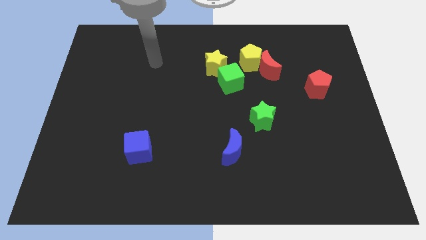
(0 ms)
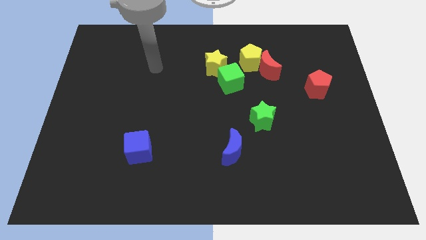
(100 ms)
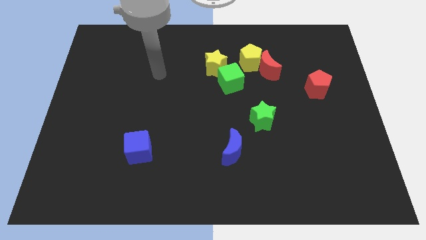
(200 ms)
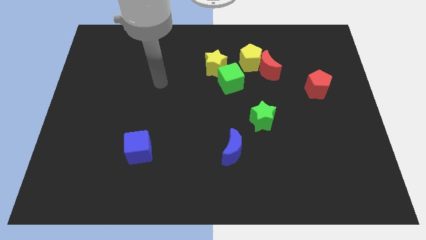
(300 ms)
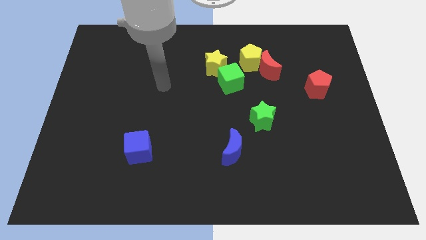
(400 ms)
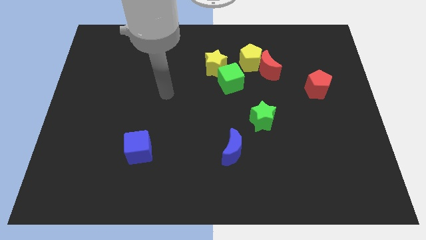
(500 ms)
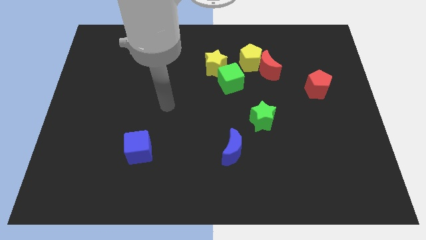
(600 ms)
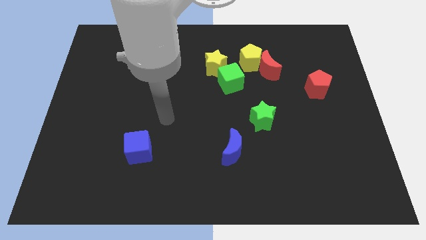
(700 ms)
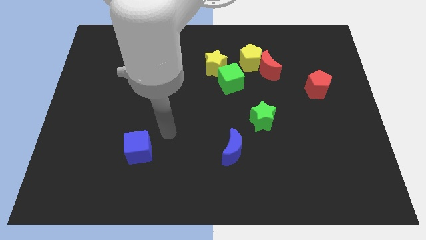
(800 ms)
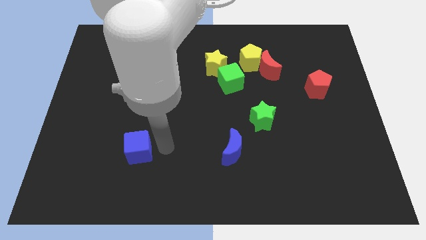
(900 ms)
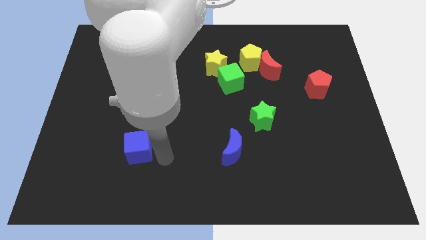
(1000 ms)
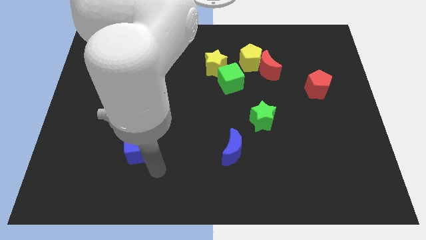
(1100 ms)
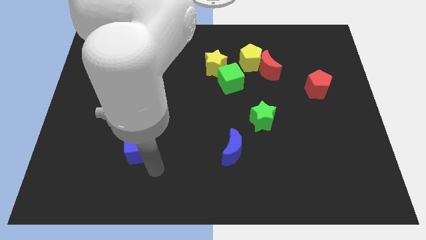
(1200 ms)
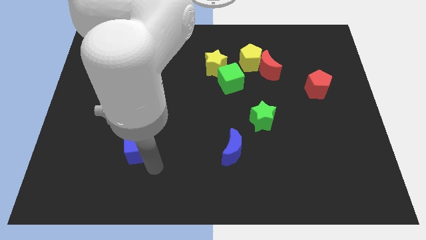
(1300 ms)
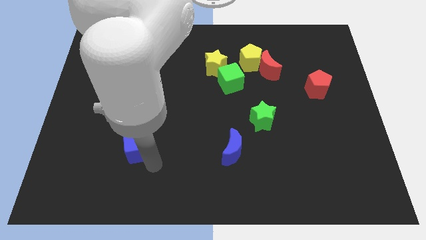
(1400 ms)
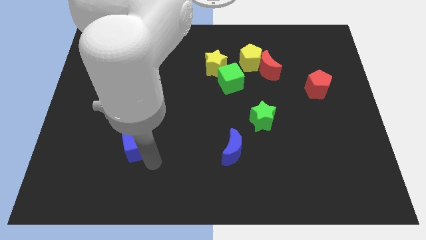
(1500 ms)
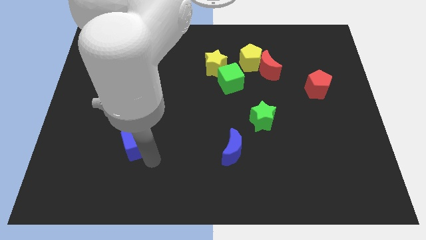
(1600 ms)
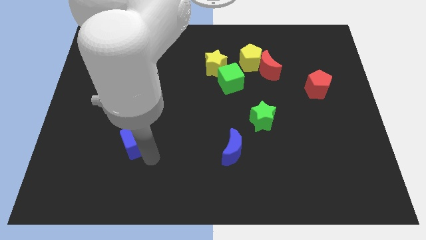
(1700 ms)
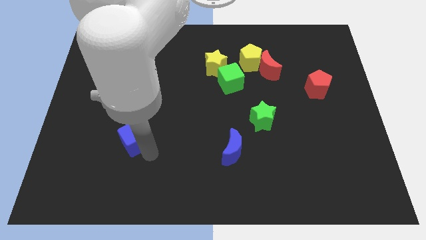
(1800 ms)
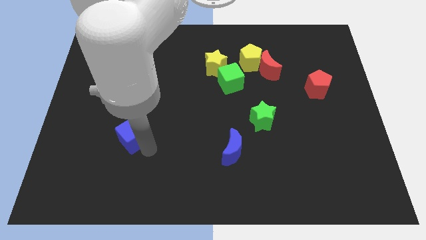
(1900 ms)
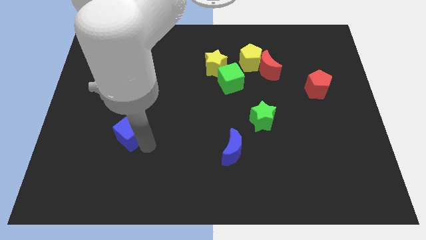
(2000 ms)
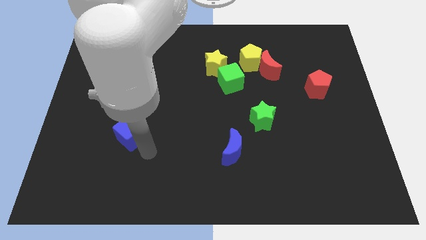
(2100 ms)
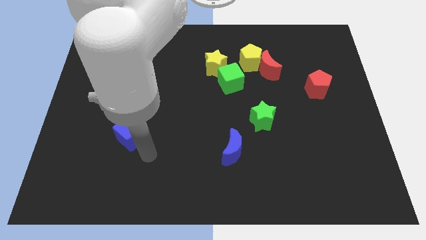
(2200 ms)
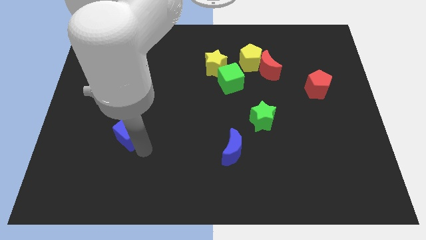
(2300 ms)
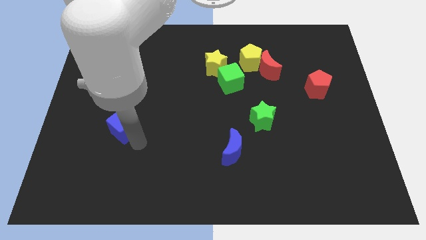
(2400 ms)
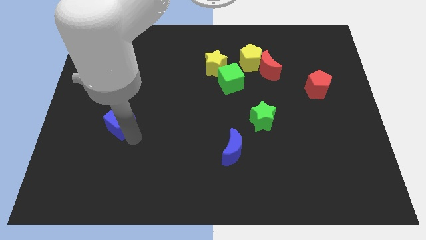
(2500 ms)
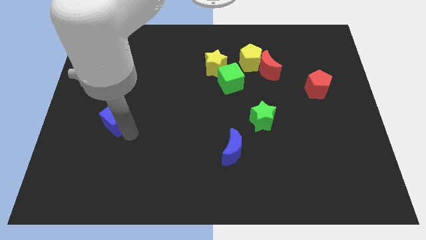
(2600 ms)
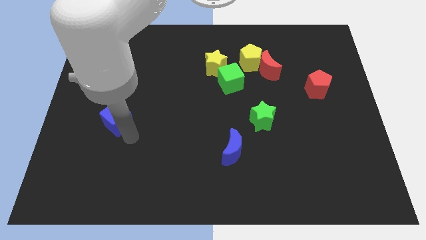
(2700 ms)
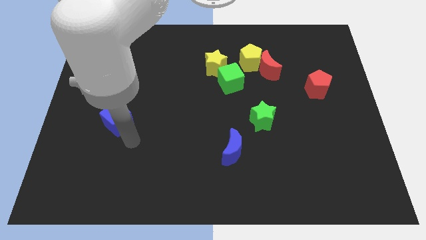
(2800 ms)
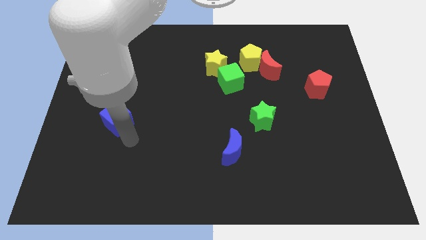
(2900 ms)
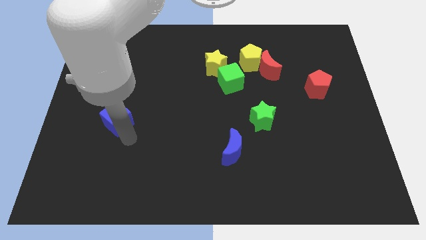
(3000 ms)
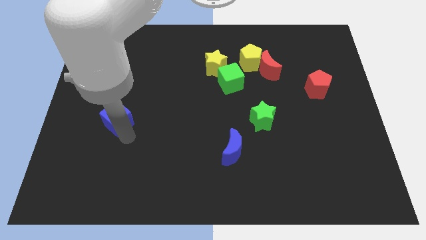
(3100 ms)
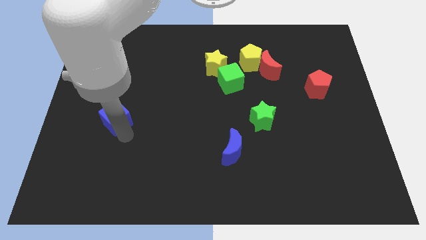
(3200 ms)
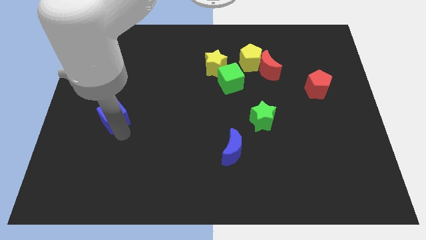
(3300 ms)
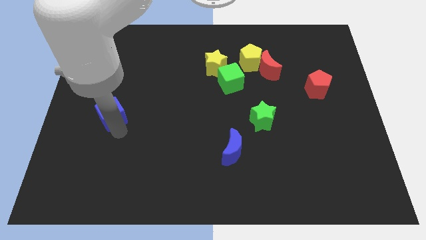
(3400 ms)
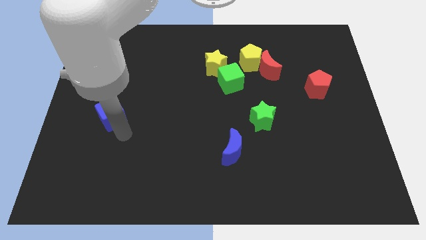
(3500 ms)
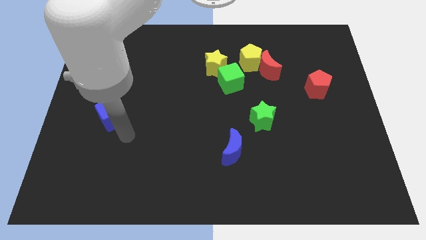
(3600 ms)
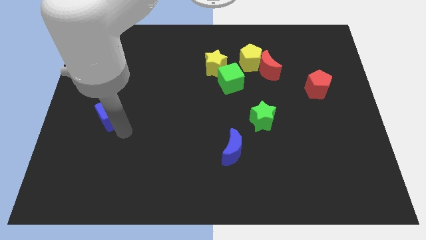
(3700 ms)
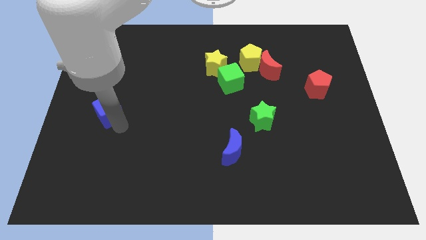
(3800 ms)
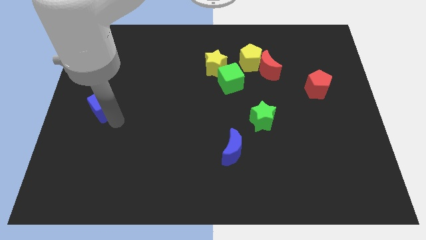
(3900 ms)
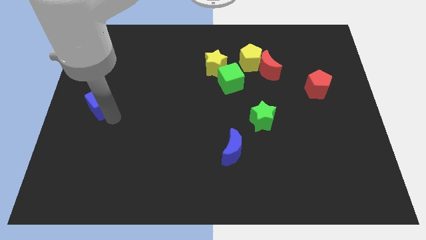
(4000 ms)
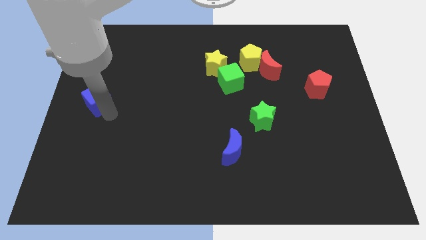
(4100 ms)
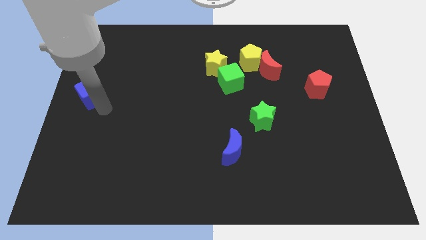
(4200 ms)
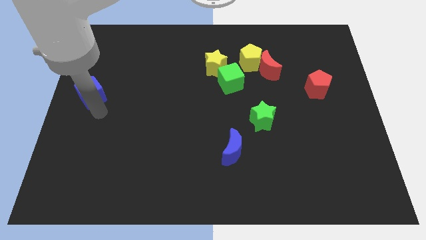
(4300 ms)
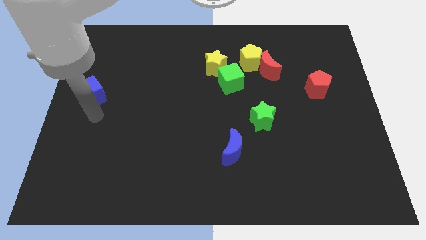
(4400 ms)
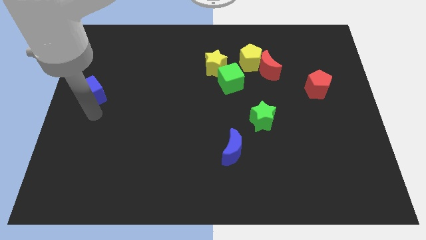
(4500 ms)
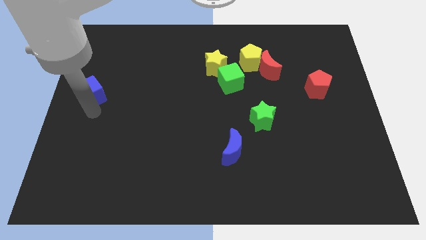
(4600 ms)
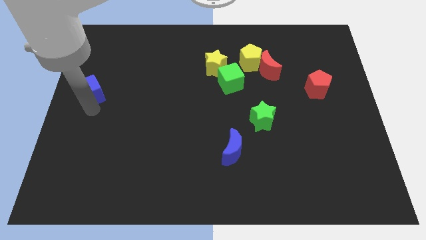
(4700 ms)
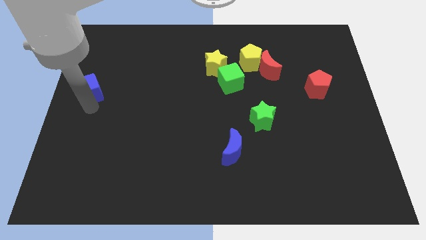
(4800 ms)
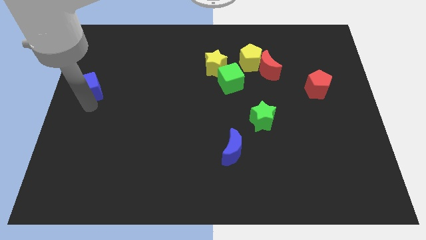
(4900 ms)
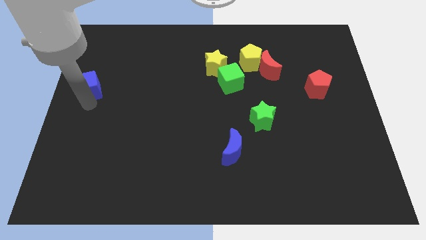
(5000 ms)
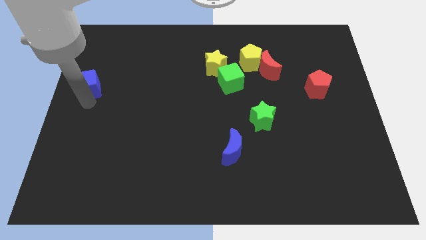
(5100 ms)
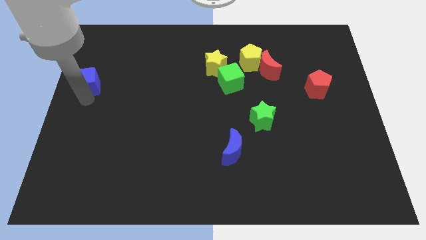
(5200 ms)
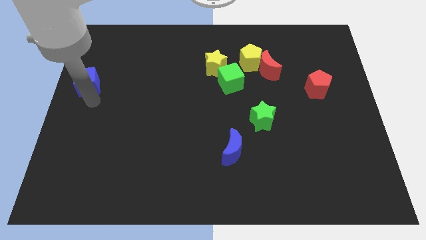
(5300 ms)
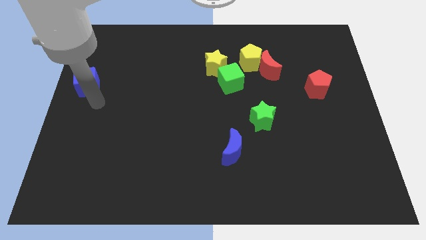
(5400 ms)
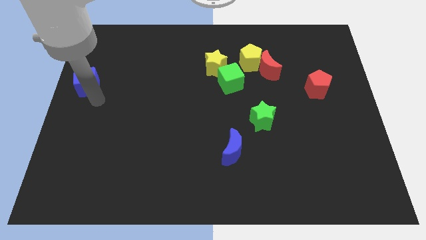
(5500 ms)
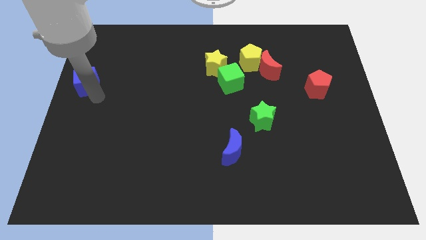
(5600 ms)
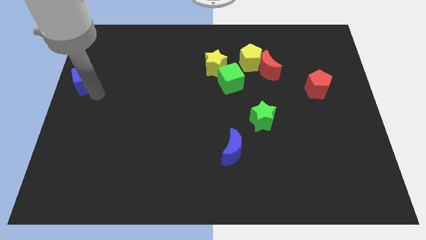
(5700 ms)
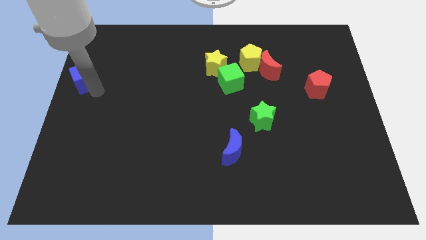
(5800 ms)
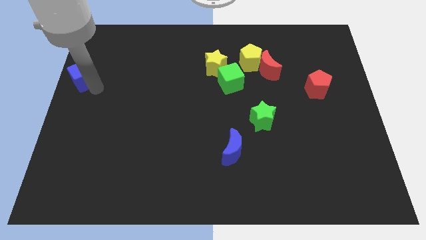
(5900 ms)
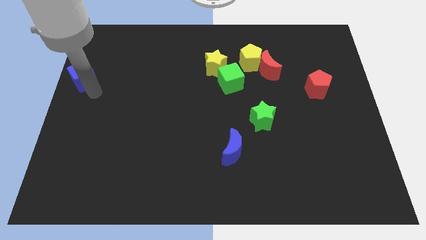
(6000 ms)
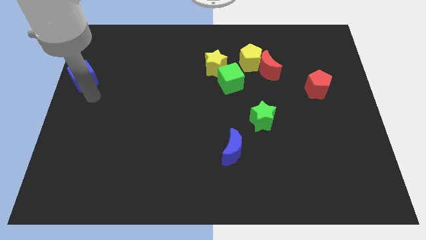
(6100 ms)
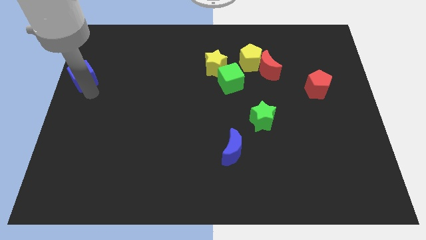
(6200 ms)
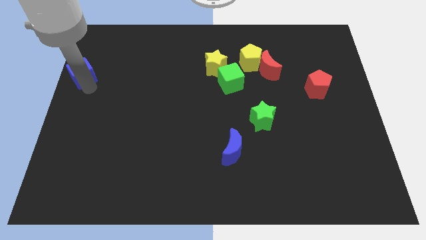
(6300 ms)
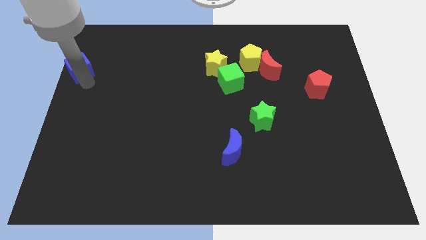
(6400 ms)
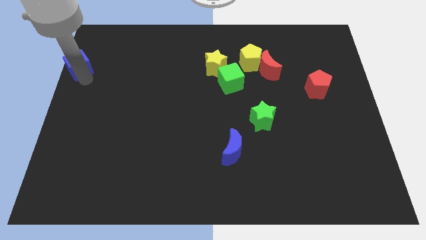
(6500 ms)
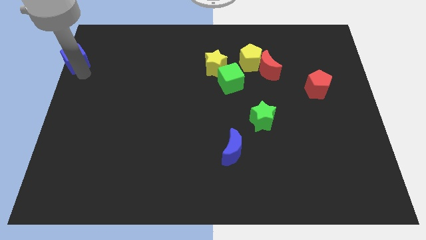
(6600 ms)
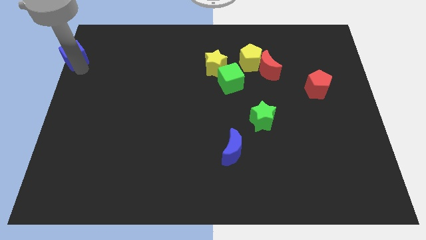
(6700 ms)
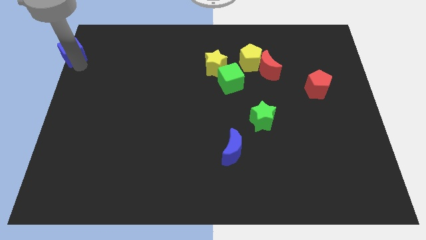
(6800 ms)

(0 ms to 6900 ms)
push the blue cube to the top left
